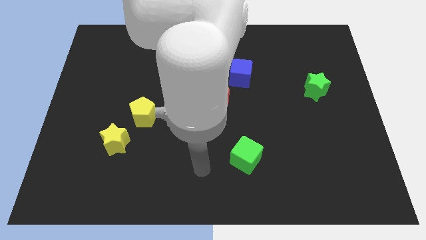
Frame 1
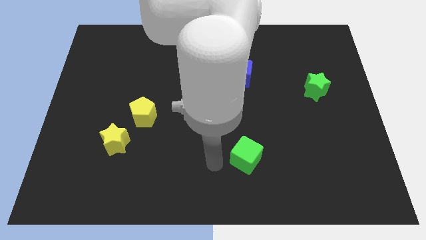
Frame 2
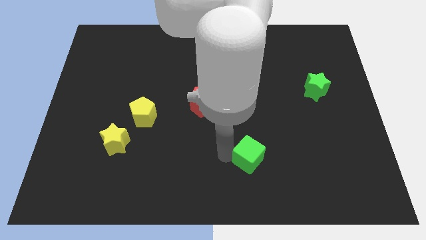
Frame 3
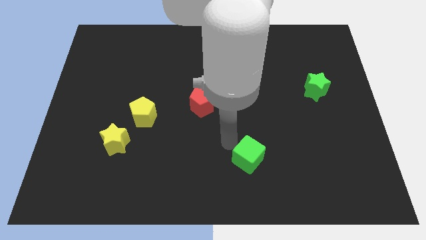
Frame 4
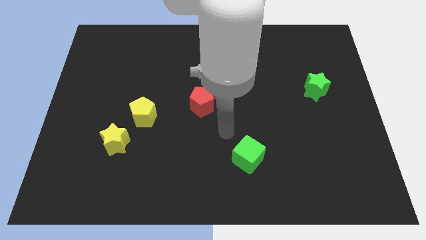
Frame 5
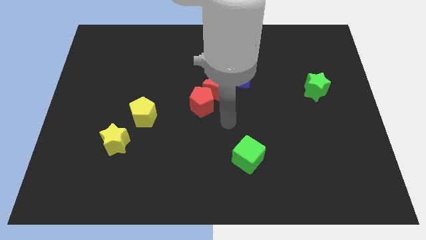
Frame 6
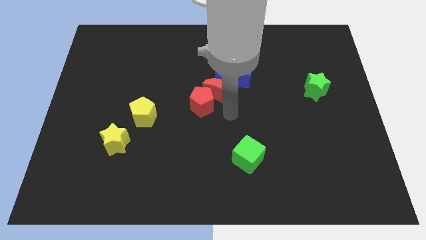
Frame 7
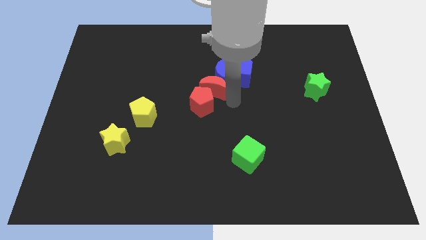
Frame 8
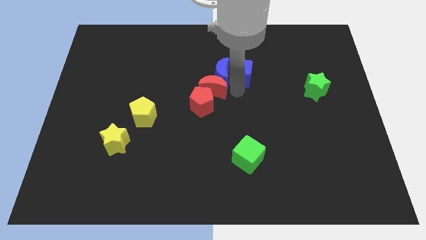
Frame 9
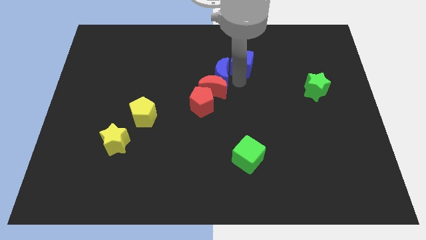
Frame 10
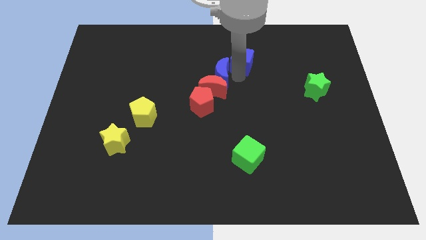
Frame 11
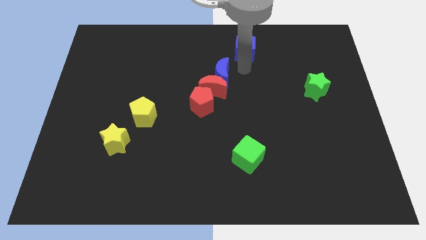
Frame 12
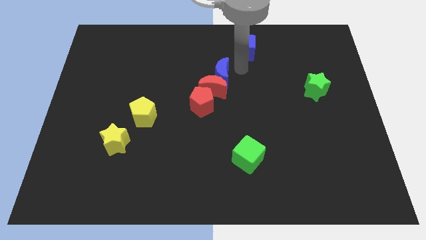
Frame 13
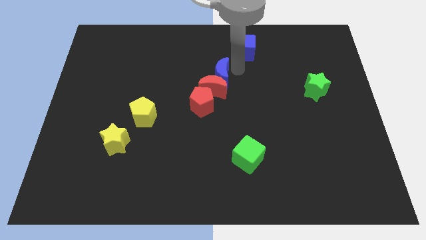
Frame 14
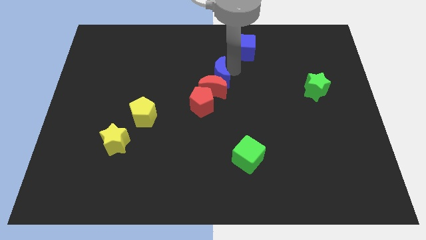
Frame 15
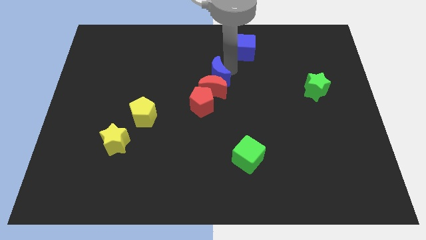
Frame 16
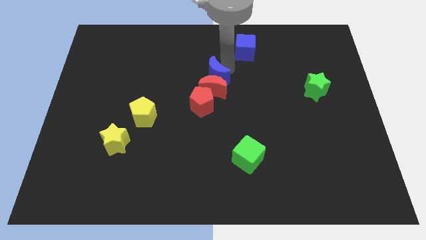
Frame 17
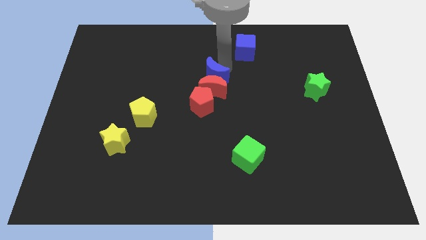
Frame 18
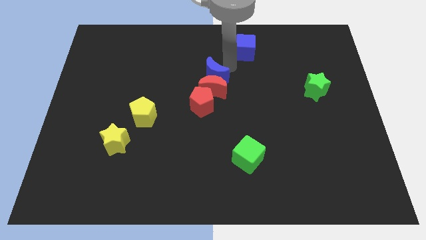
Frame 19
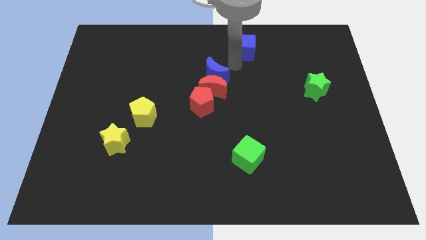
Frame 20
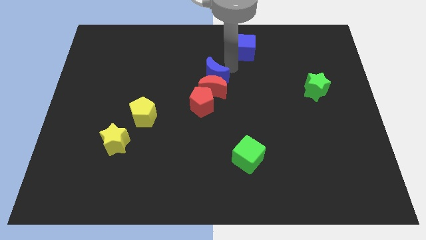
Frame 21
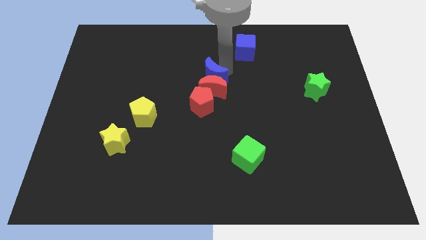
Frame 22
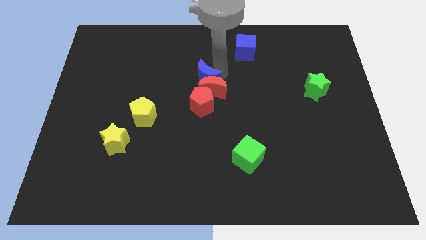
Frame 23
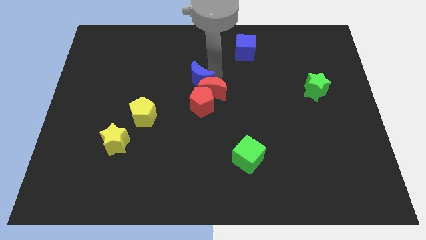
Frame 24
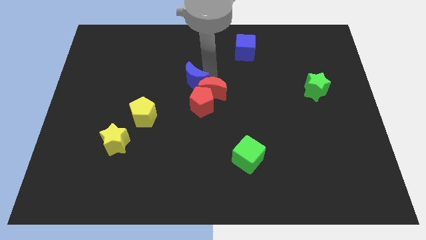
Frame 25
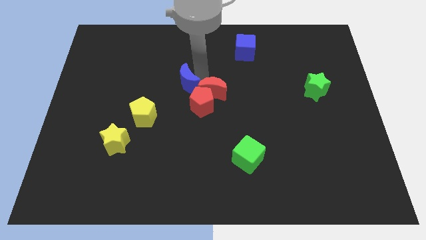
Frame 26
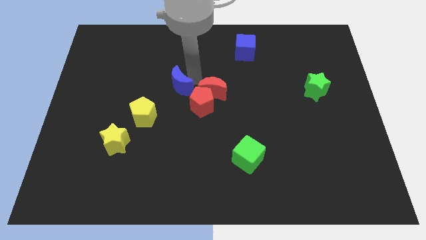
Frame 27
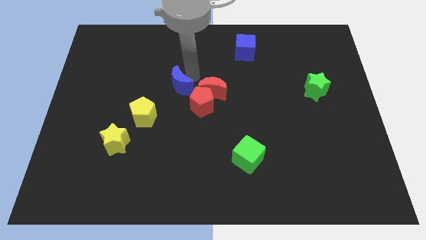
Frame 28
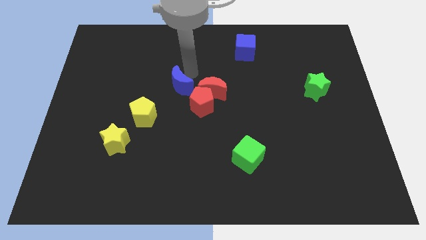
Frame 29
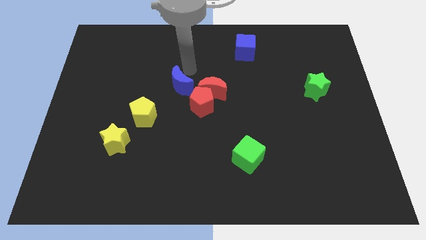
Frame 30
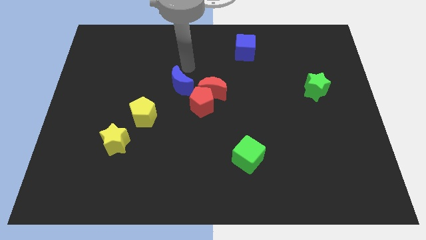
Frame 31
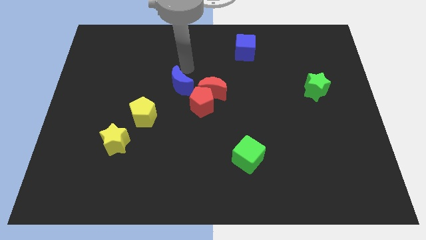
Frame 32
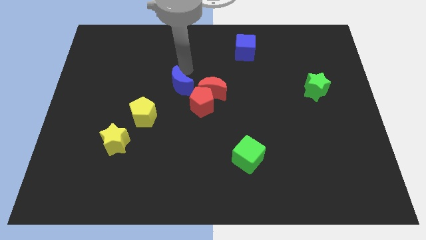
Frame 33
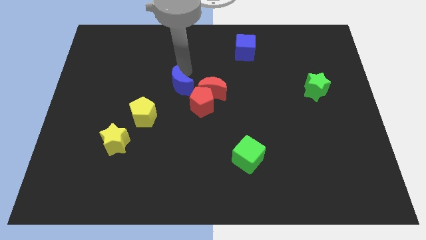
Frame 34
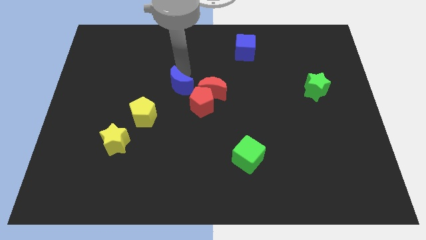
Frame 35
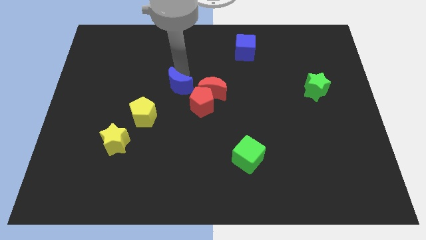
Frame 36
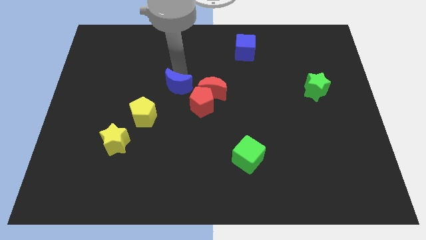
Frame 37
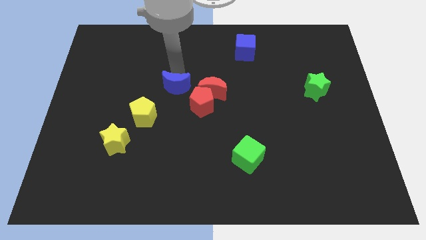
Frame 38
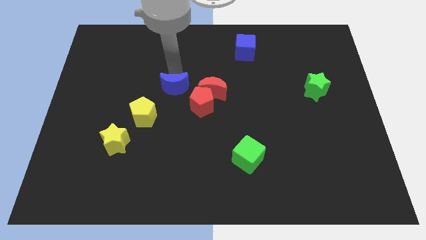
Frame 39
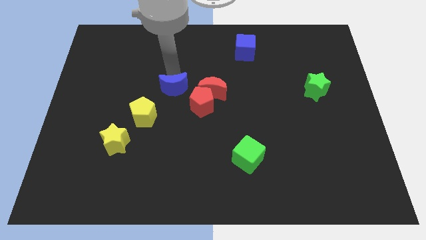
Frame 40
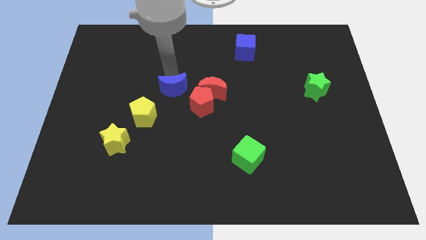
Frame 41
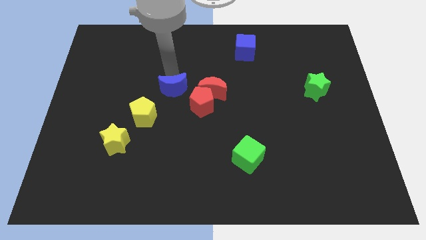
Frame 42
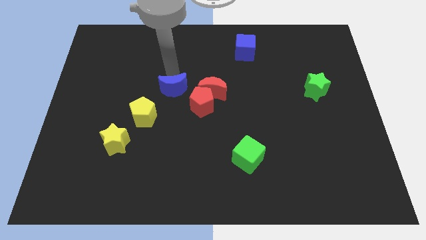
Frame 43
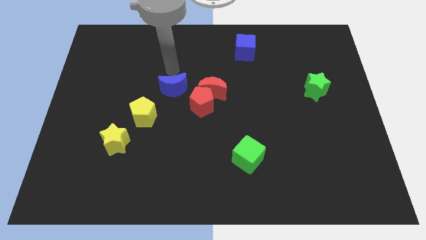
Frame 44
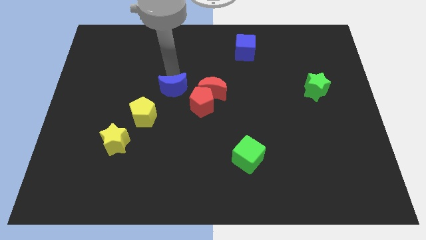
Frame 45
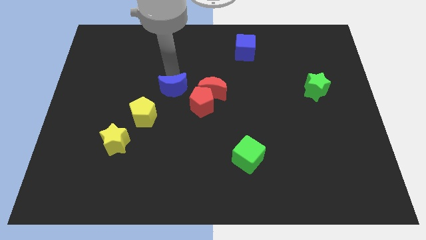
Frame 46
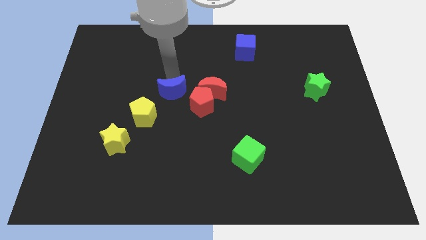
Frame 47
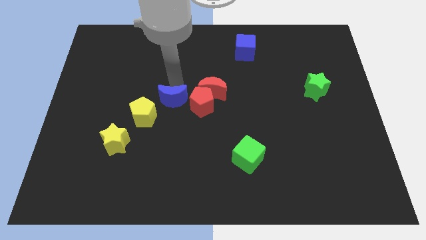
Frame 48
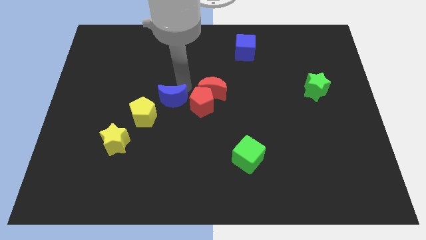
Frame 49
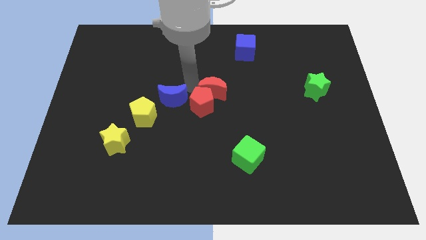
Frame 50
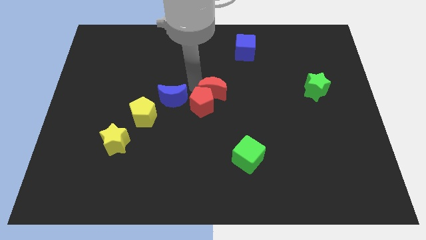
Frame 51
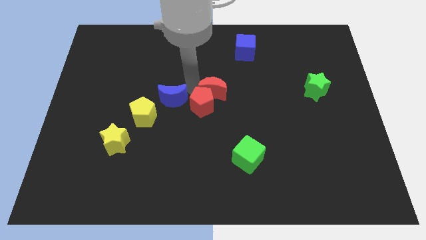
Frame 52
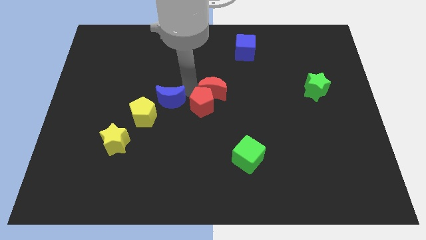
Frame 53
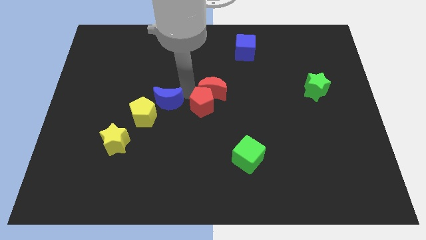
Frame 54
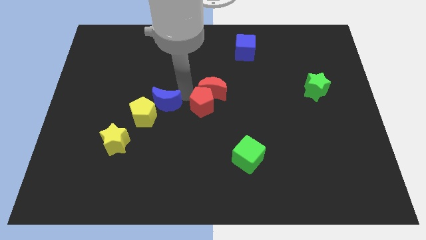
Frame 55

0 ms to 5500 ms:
slide the blue moon close to the yellow pentagon

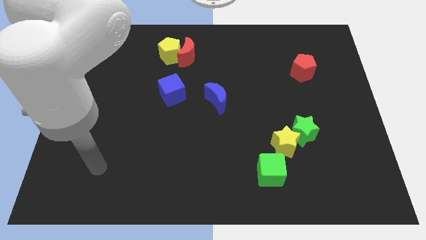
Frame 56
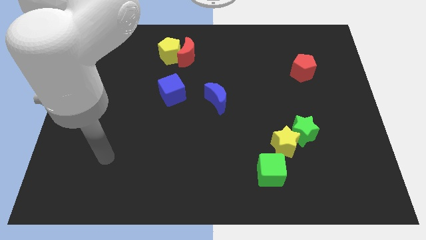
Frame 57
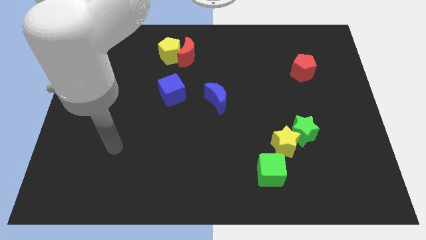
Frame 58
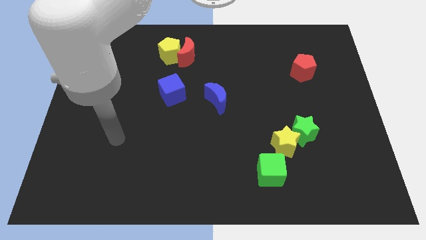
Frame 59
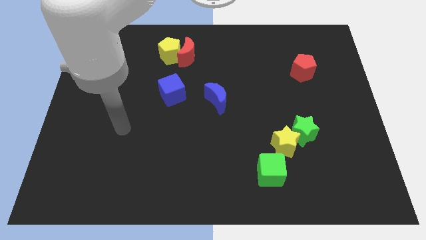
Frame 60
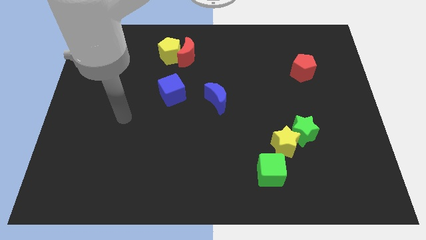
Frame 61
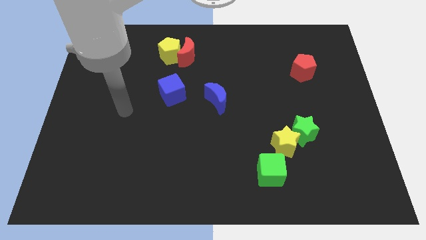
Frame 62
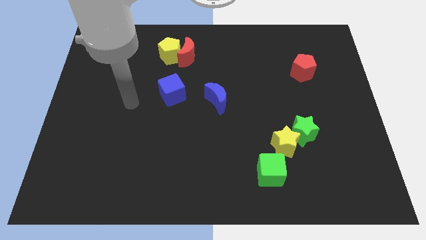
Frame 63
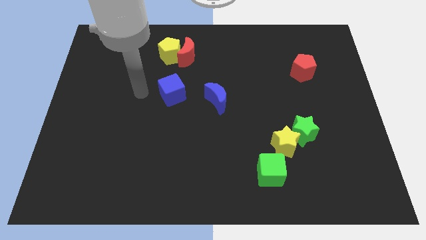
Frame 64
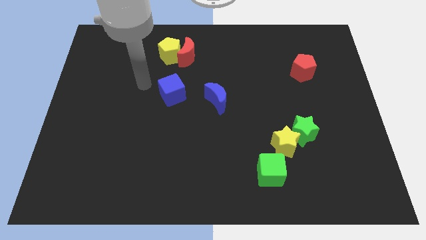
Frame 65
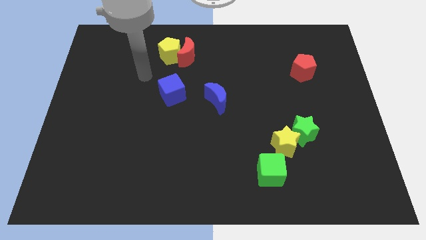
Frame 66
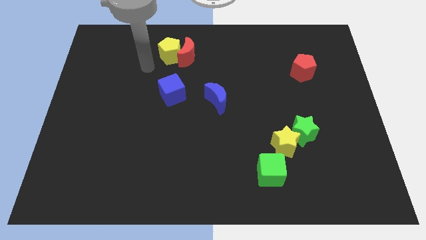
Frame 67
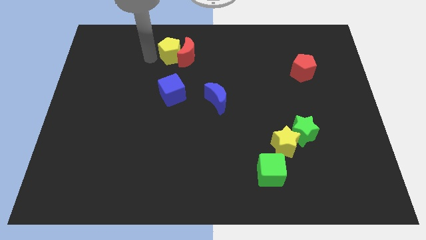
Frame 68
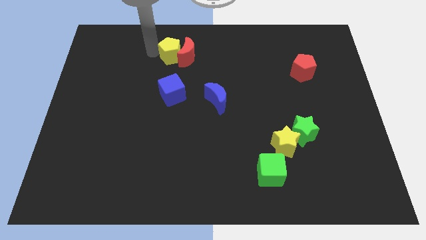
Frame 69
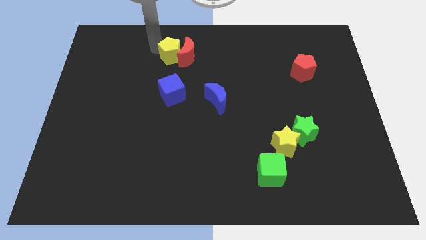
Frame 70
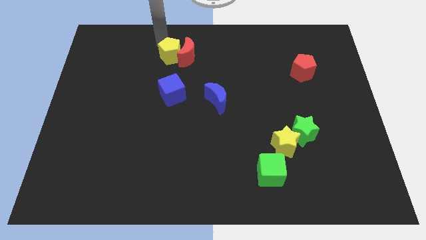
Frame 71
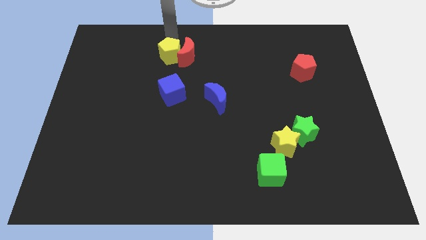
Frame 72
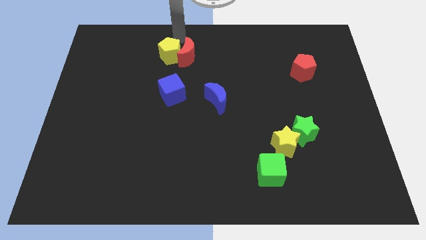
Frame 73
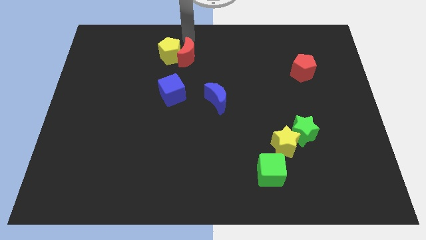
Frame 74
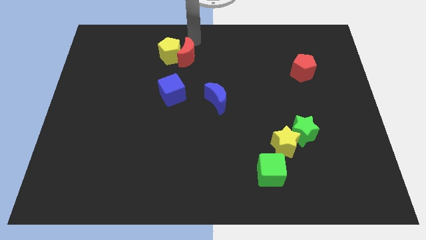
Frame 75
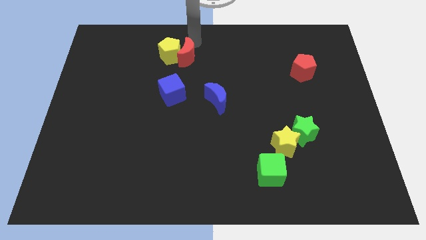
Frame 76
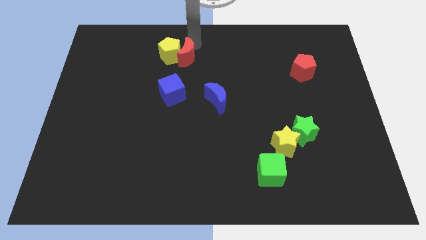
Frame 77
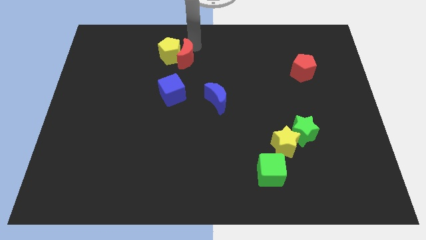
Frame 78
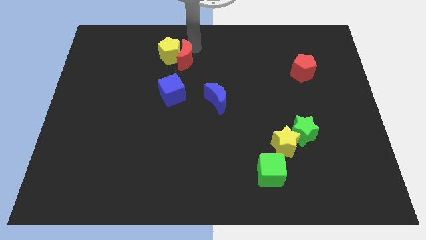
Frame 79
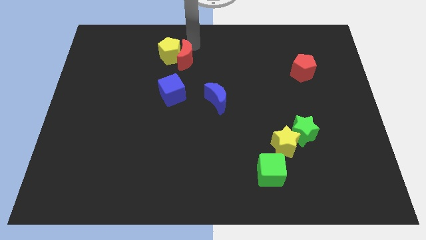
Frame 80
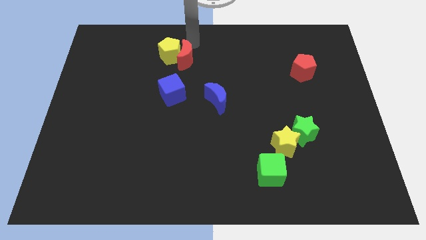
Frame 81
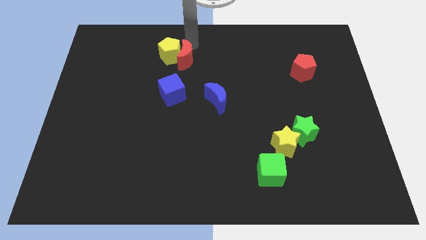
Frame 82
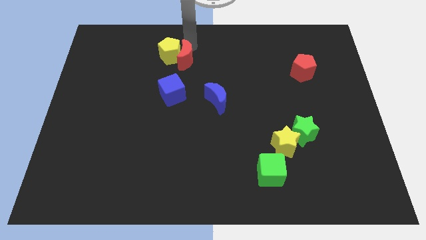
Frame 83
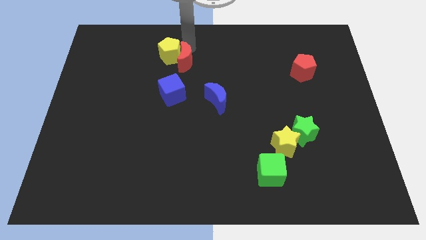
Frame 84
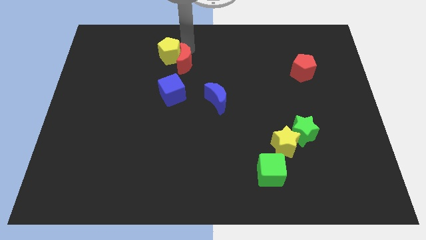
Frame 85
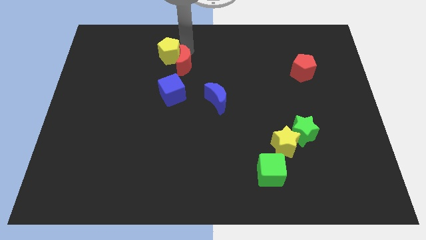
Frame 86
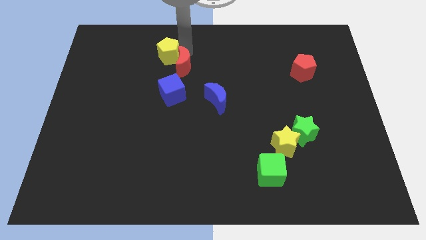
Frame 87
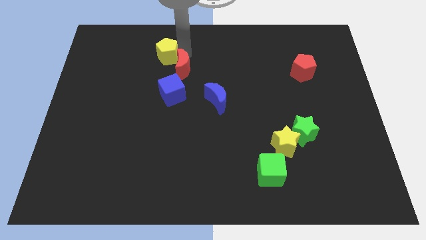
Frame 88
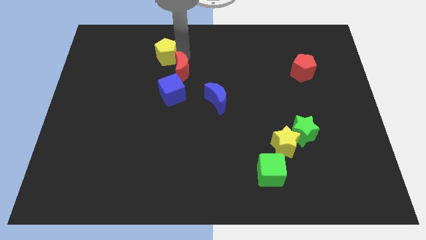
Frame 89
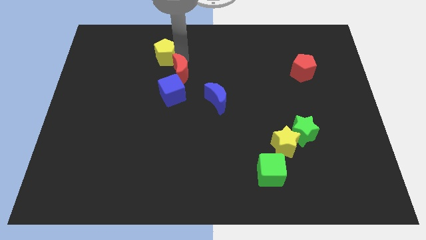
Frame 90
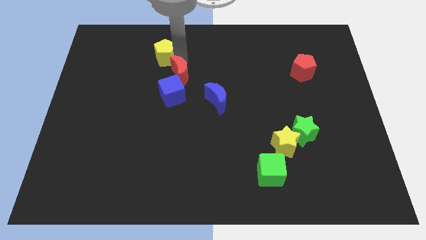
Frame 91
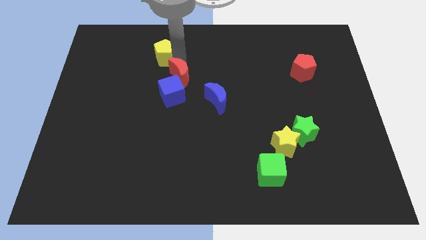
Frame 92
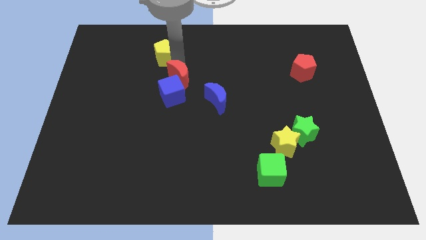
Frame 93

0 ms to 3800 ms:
push the red moon to the blue cube
